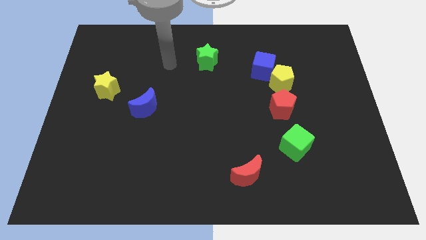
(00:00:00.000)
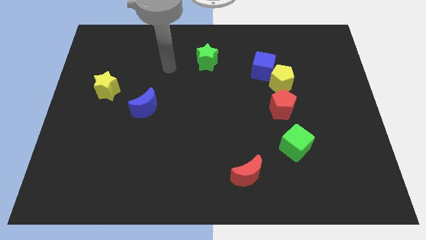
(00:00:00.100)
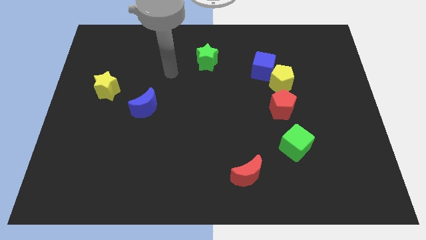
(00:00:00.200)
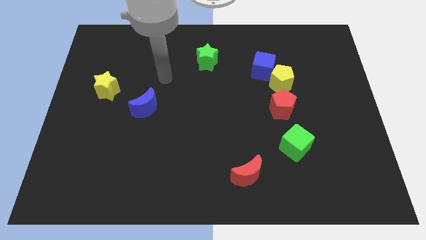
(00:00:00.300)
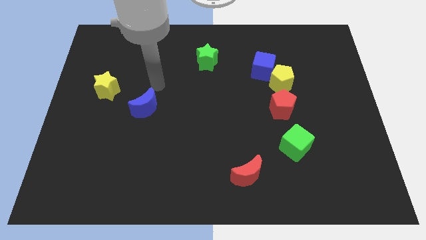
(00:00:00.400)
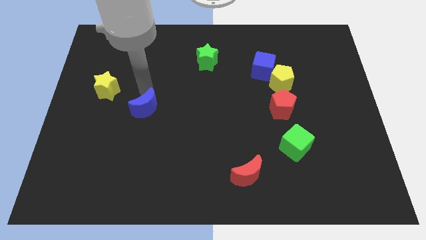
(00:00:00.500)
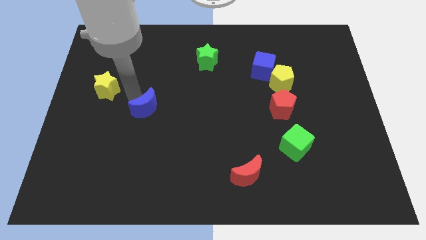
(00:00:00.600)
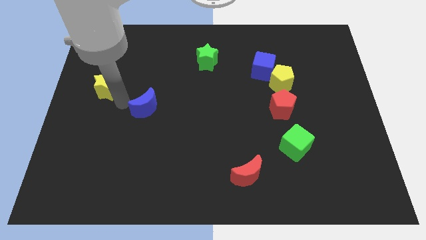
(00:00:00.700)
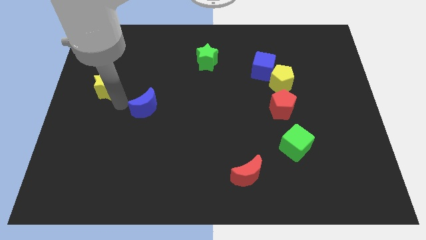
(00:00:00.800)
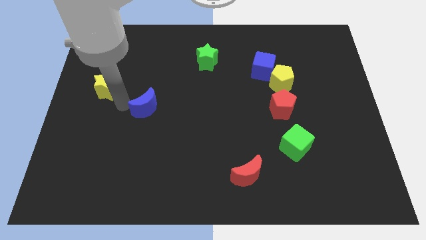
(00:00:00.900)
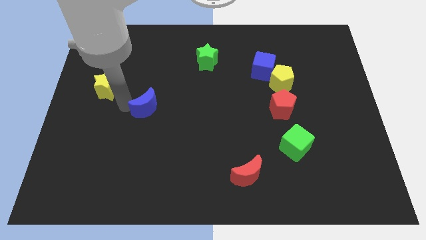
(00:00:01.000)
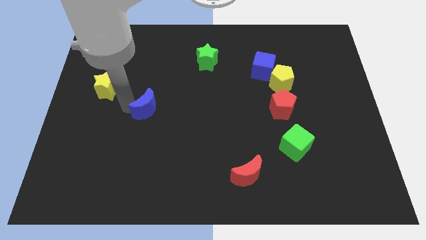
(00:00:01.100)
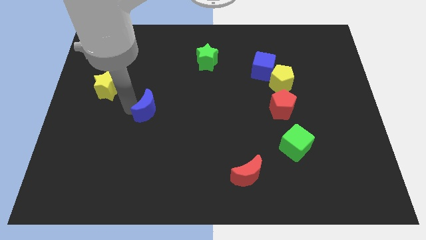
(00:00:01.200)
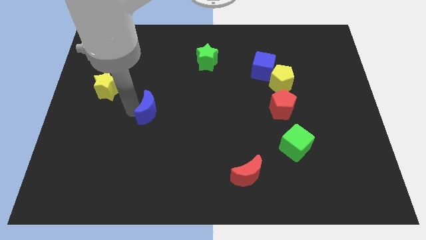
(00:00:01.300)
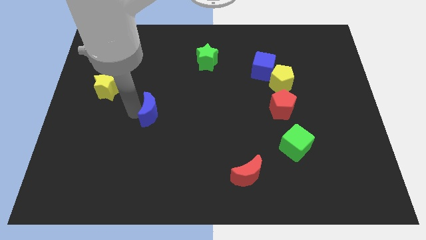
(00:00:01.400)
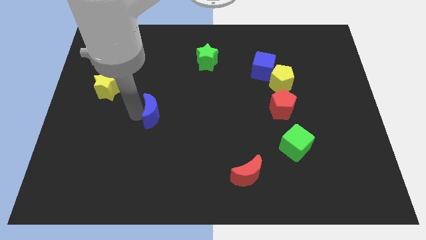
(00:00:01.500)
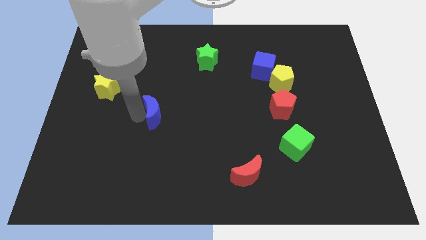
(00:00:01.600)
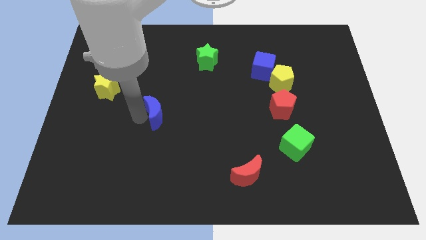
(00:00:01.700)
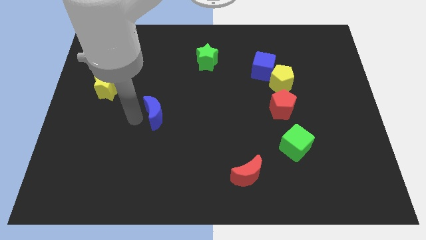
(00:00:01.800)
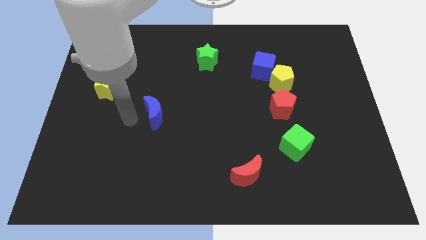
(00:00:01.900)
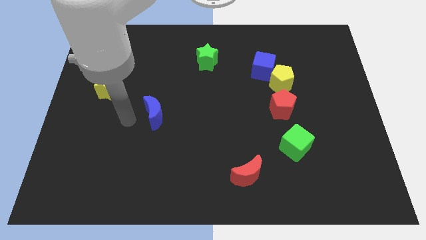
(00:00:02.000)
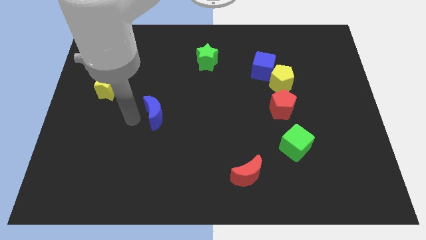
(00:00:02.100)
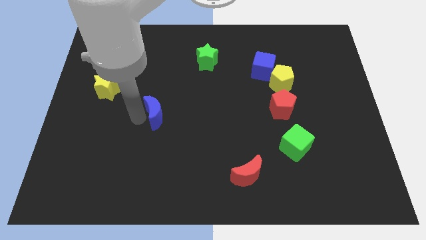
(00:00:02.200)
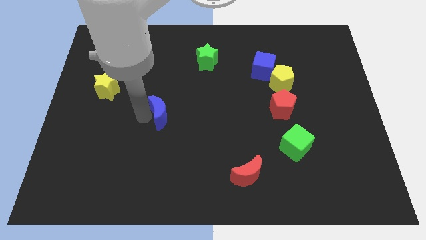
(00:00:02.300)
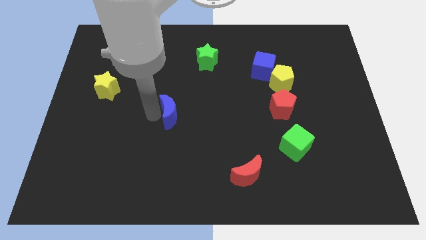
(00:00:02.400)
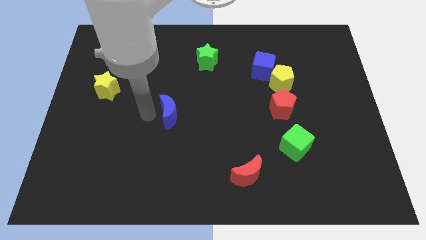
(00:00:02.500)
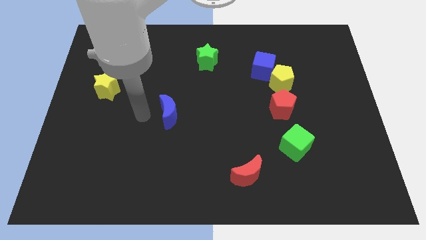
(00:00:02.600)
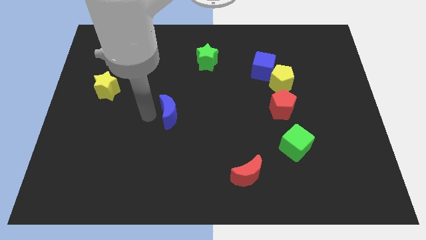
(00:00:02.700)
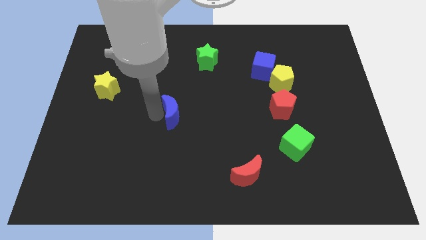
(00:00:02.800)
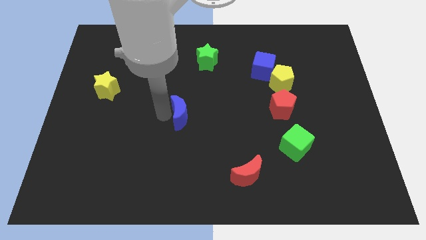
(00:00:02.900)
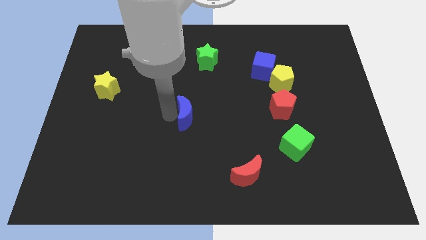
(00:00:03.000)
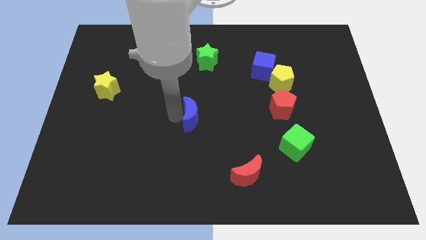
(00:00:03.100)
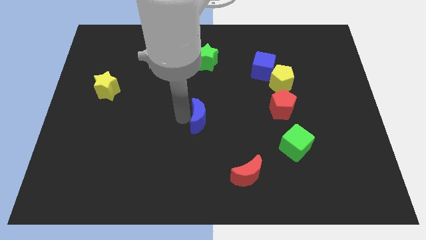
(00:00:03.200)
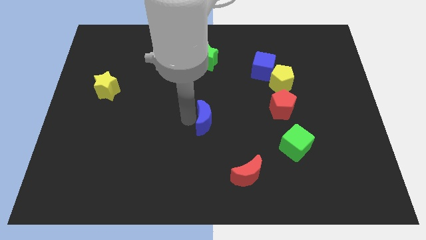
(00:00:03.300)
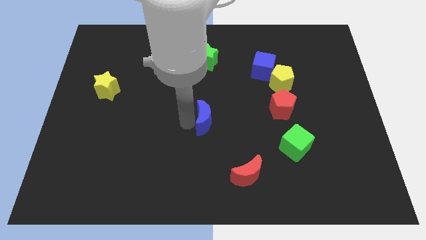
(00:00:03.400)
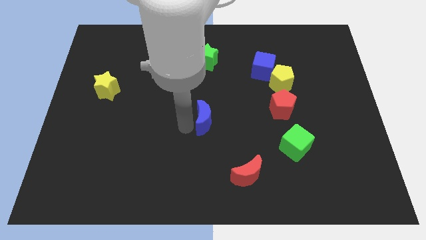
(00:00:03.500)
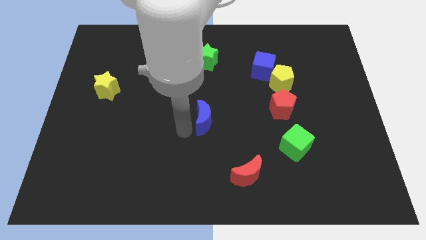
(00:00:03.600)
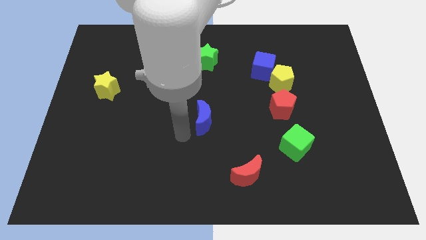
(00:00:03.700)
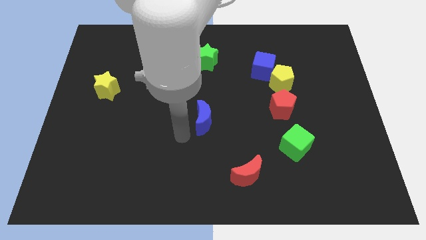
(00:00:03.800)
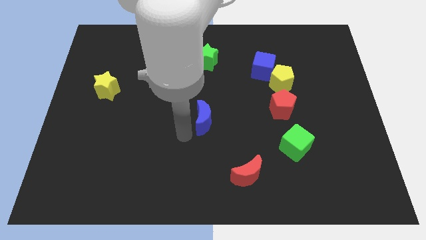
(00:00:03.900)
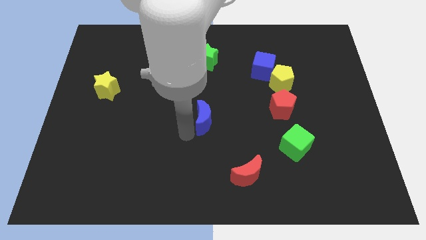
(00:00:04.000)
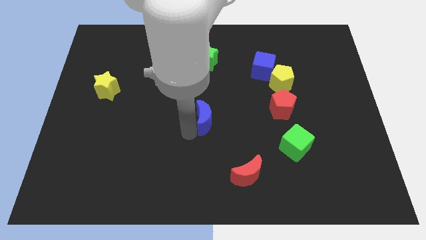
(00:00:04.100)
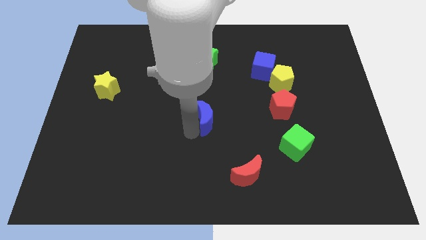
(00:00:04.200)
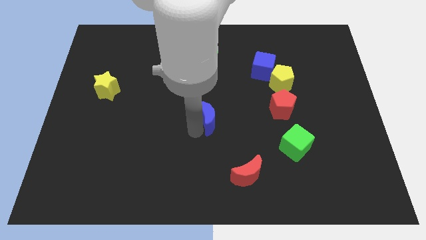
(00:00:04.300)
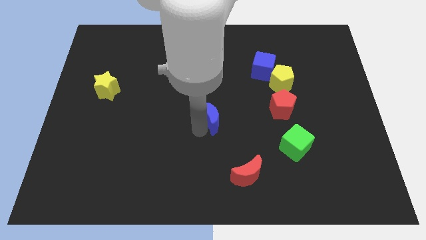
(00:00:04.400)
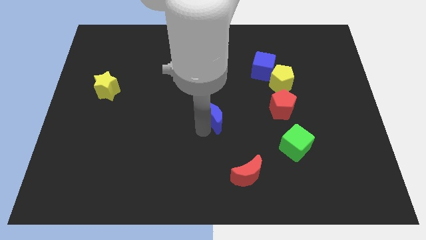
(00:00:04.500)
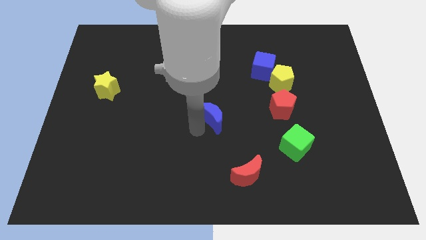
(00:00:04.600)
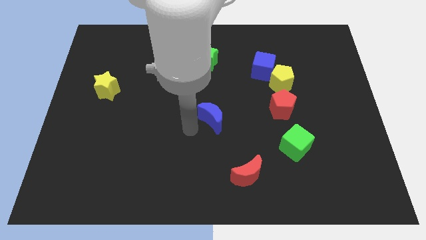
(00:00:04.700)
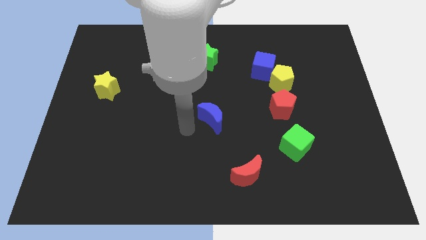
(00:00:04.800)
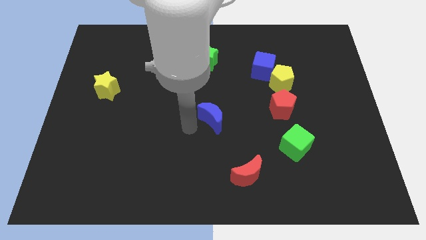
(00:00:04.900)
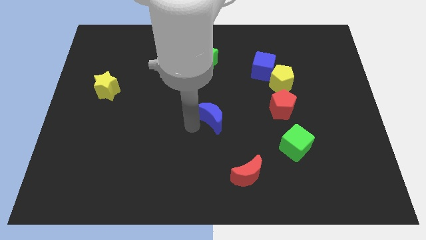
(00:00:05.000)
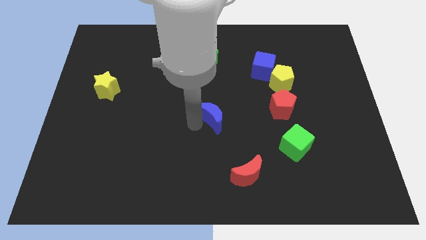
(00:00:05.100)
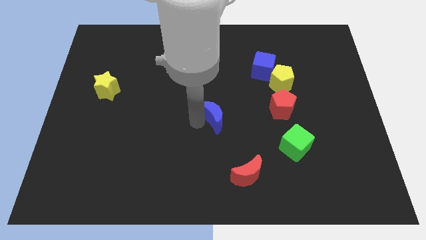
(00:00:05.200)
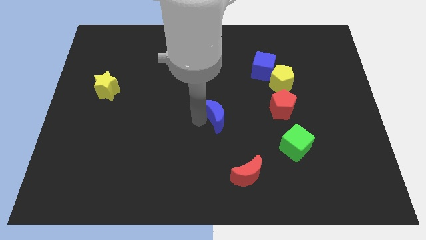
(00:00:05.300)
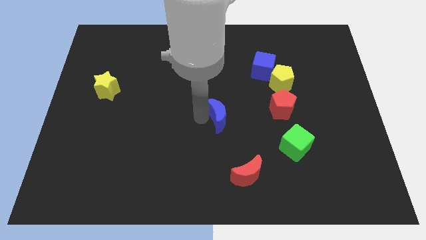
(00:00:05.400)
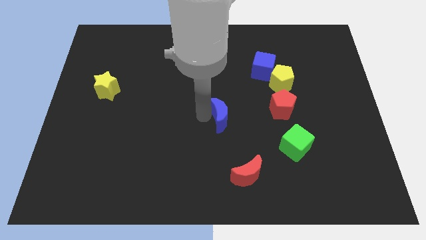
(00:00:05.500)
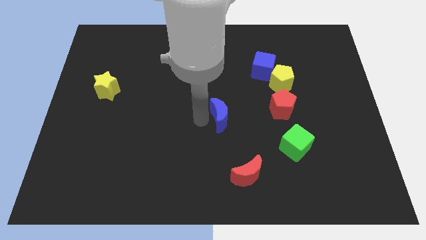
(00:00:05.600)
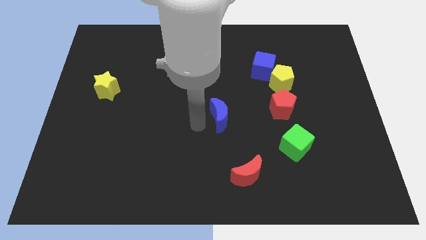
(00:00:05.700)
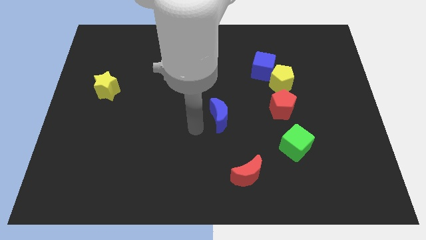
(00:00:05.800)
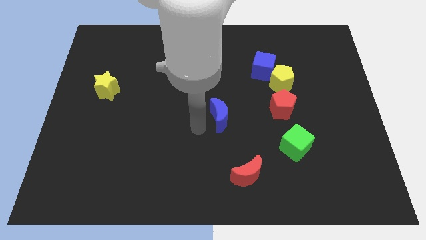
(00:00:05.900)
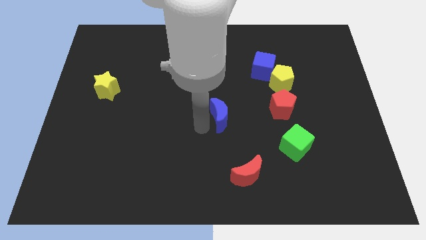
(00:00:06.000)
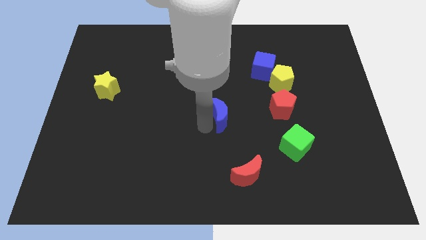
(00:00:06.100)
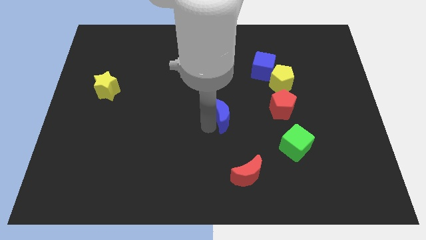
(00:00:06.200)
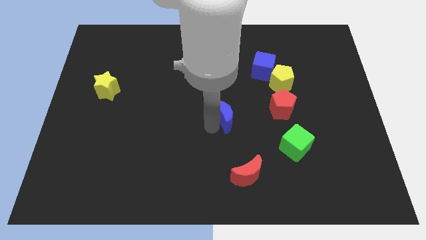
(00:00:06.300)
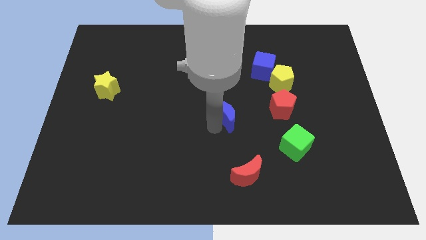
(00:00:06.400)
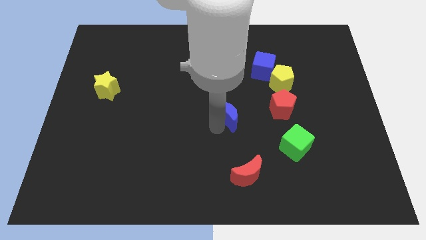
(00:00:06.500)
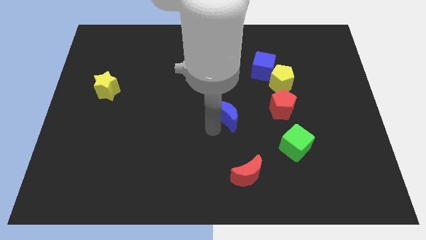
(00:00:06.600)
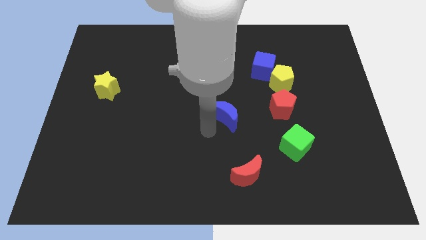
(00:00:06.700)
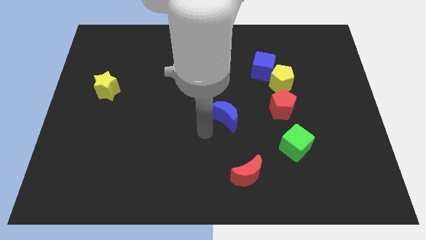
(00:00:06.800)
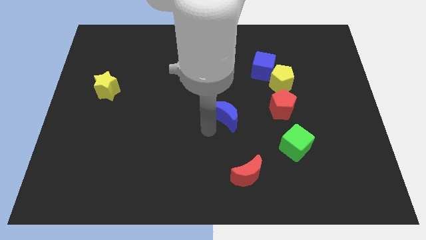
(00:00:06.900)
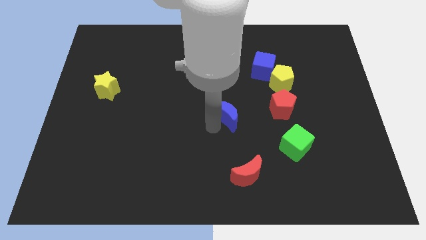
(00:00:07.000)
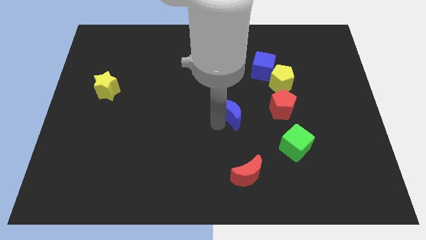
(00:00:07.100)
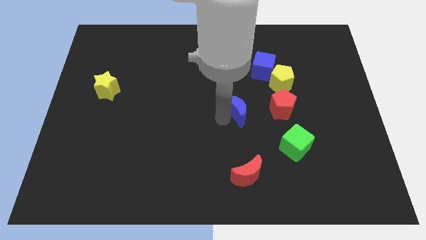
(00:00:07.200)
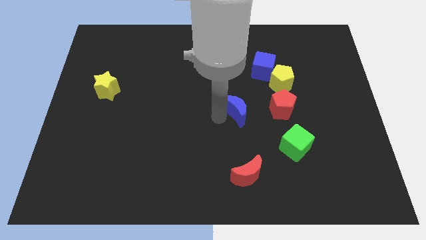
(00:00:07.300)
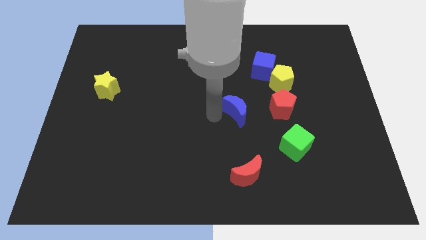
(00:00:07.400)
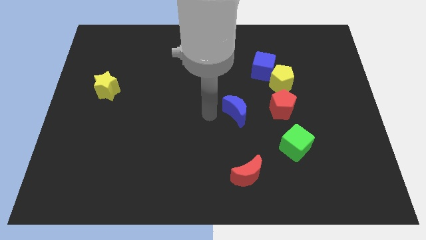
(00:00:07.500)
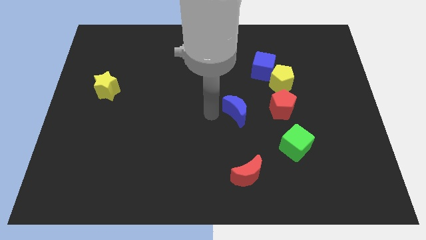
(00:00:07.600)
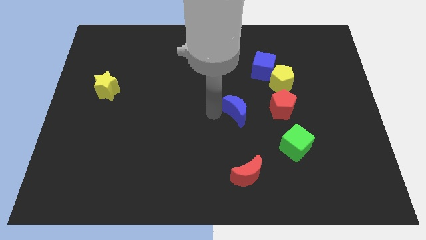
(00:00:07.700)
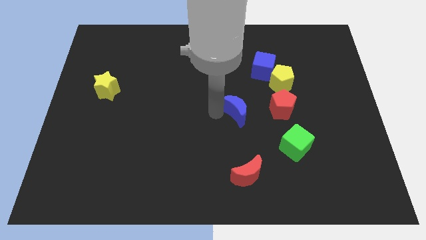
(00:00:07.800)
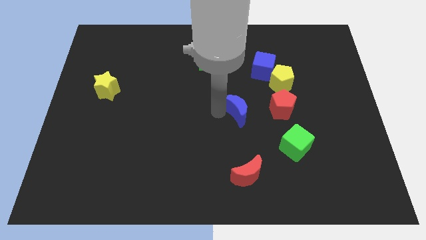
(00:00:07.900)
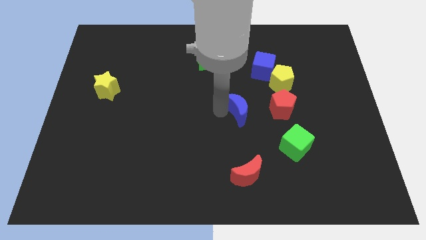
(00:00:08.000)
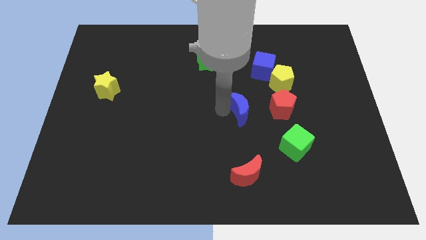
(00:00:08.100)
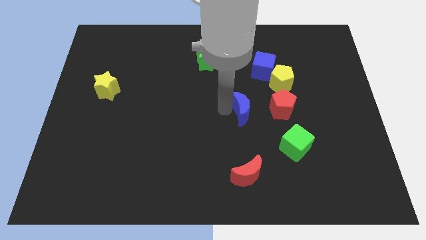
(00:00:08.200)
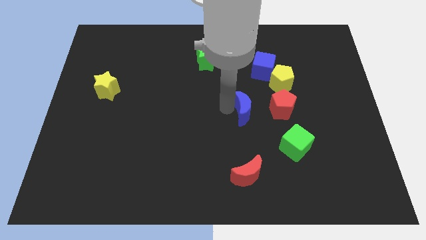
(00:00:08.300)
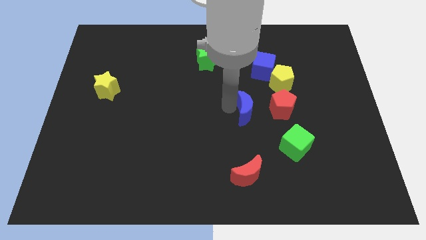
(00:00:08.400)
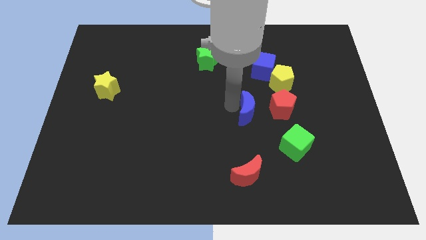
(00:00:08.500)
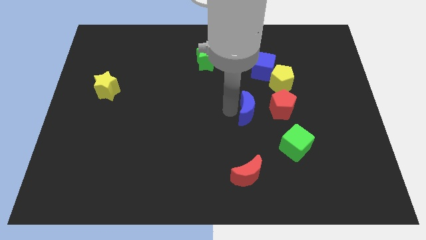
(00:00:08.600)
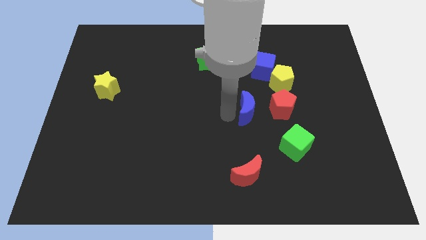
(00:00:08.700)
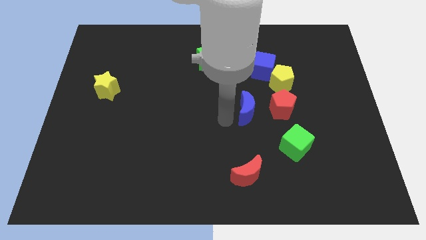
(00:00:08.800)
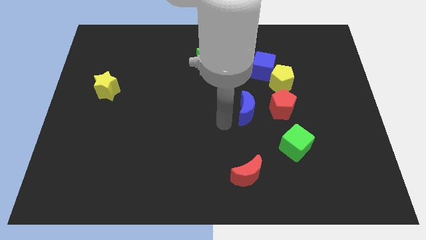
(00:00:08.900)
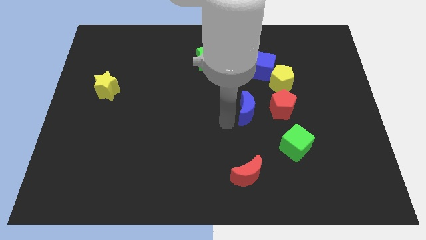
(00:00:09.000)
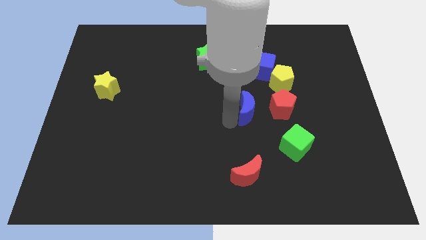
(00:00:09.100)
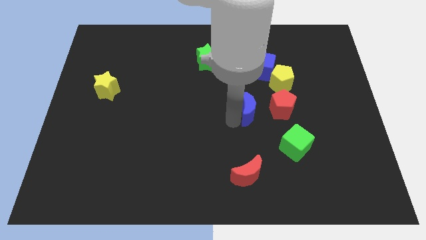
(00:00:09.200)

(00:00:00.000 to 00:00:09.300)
slide the blue moon below the blue cube
